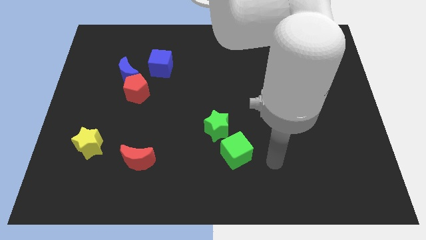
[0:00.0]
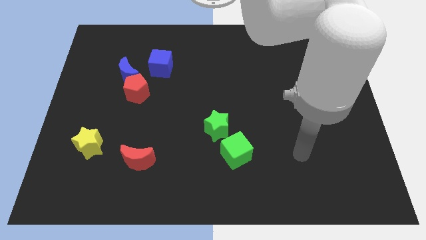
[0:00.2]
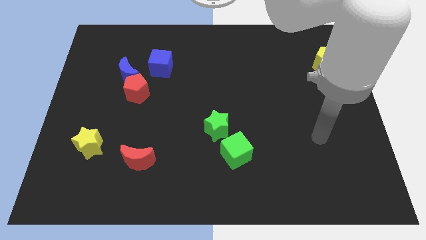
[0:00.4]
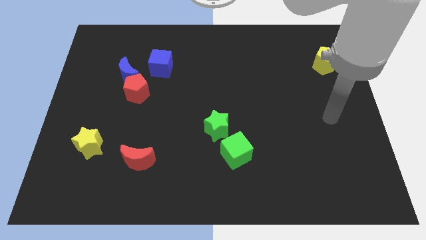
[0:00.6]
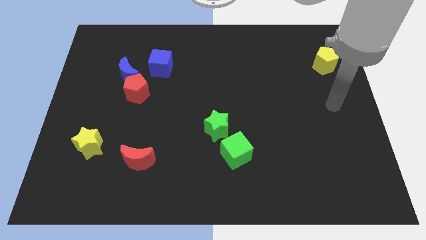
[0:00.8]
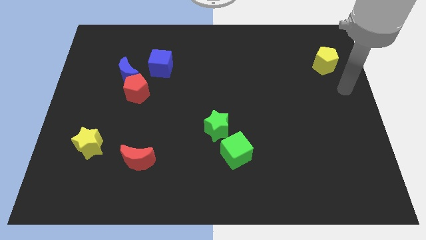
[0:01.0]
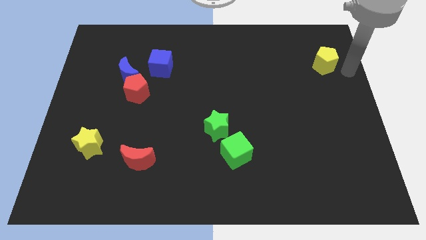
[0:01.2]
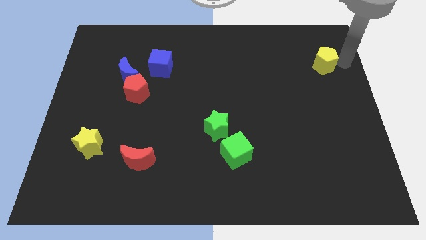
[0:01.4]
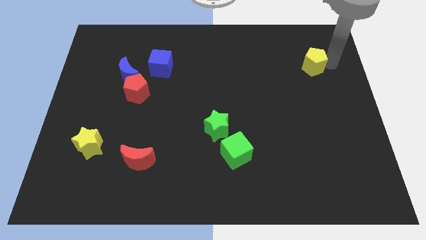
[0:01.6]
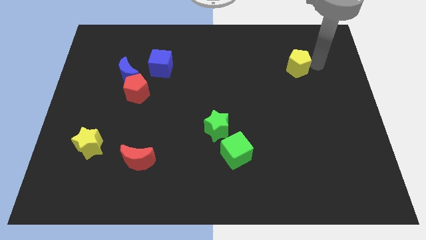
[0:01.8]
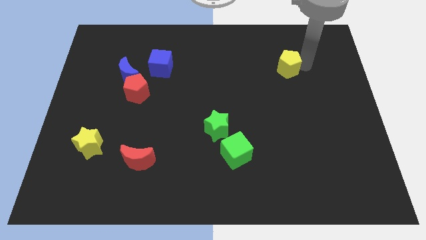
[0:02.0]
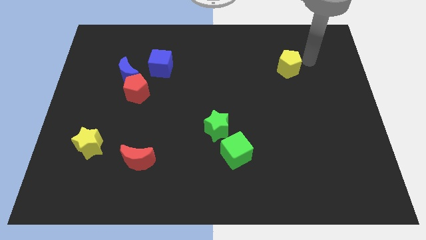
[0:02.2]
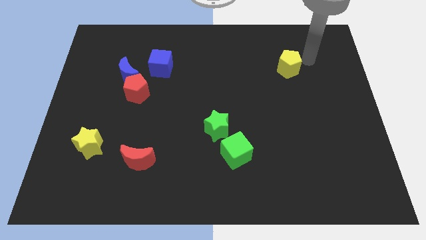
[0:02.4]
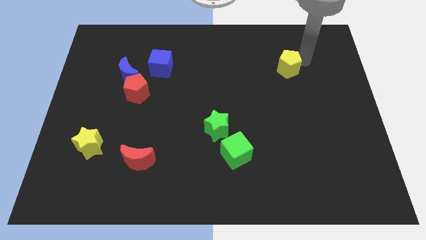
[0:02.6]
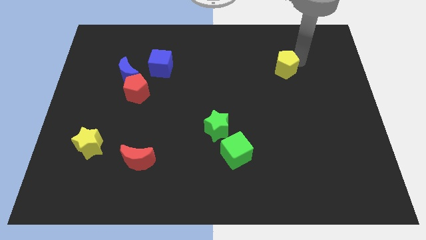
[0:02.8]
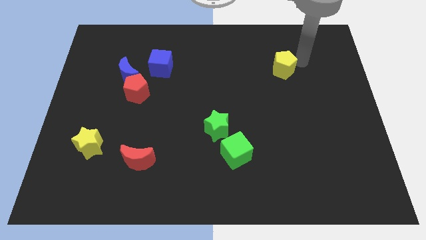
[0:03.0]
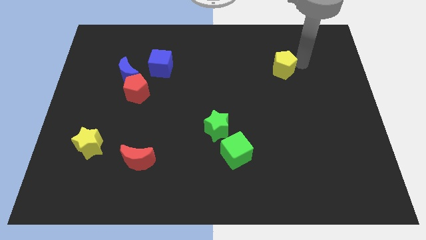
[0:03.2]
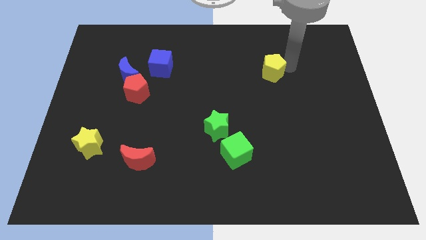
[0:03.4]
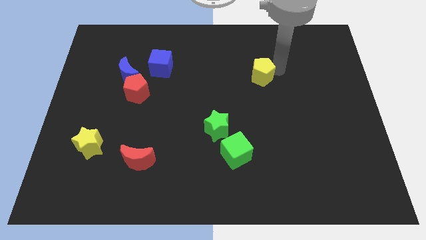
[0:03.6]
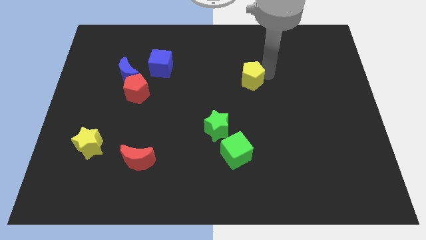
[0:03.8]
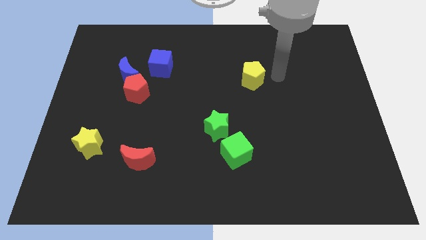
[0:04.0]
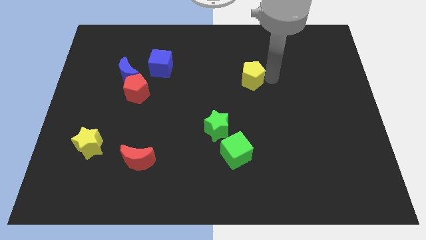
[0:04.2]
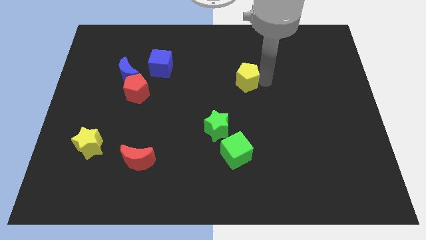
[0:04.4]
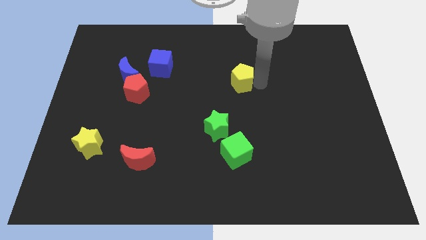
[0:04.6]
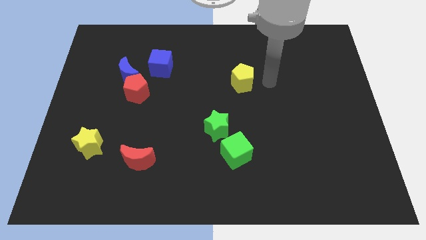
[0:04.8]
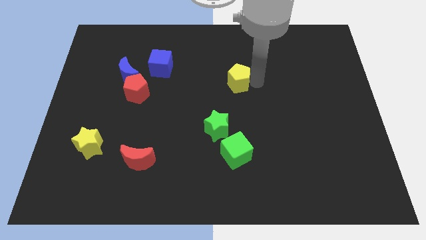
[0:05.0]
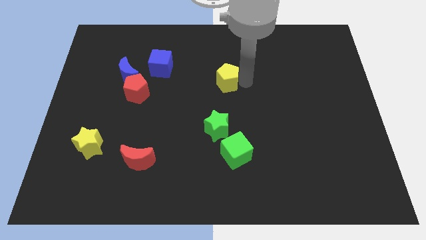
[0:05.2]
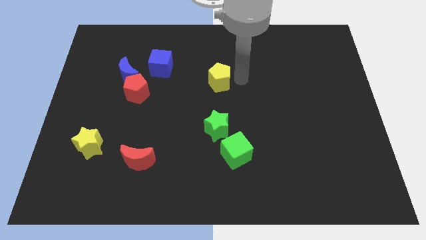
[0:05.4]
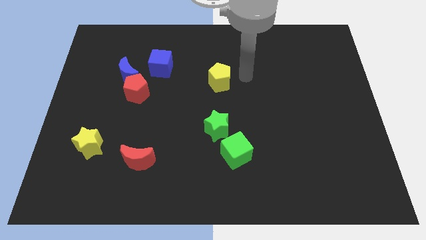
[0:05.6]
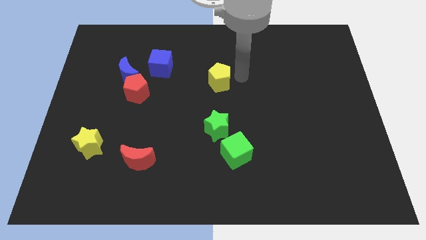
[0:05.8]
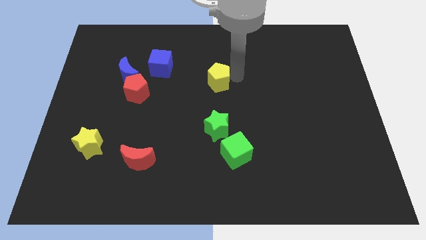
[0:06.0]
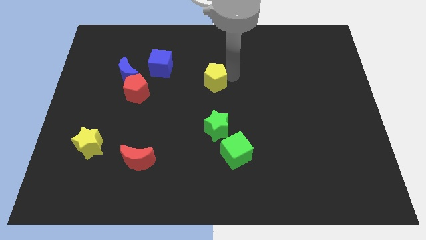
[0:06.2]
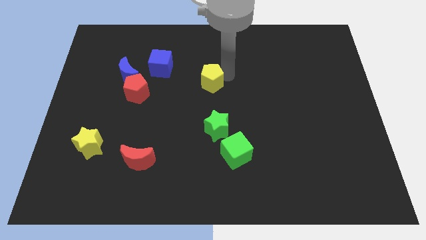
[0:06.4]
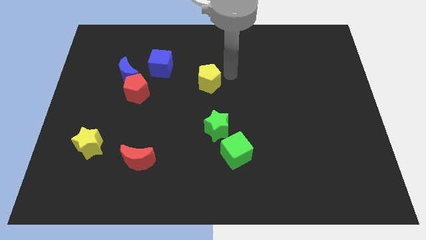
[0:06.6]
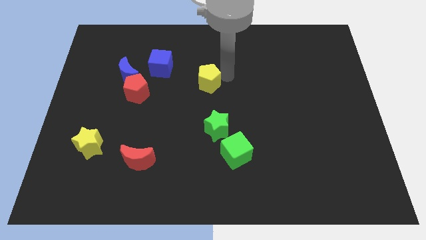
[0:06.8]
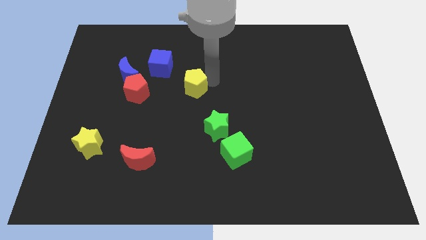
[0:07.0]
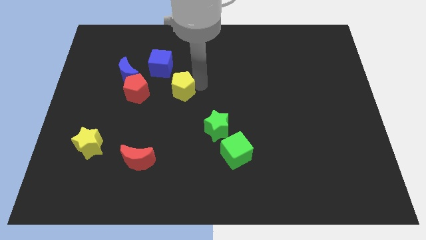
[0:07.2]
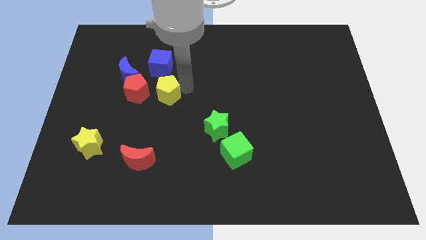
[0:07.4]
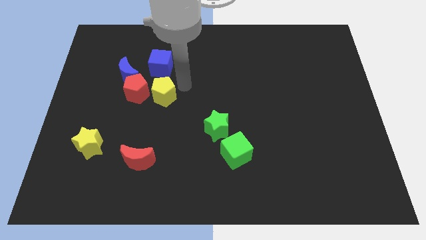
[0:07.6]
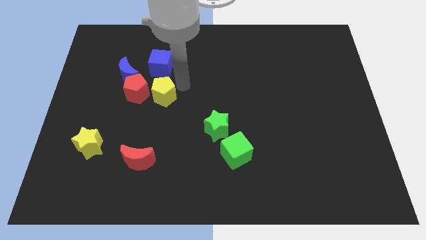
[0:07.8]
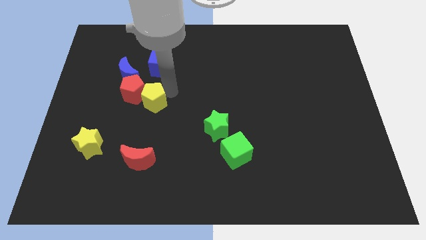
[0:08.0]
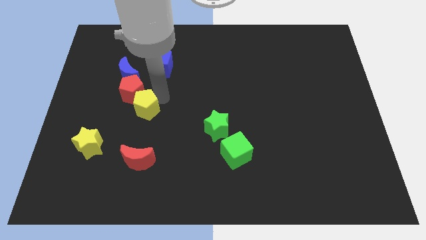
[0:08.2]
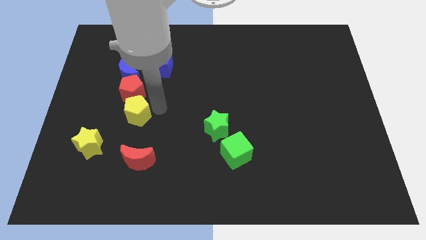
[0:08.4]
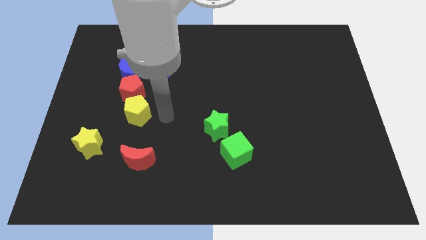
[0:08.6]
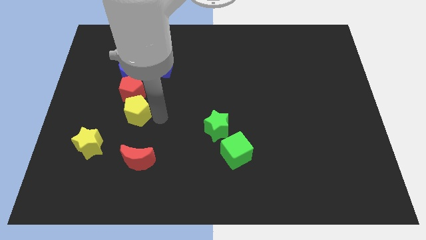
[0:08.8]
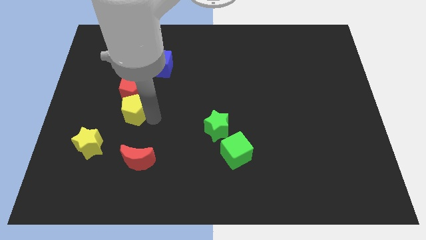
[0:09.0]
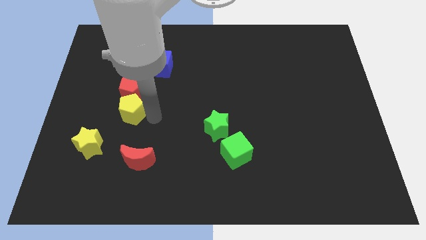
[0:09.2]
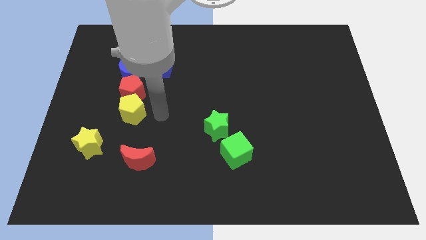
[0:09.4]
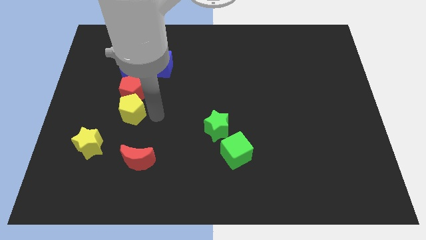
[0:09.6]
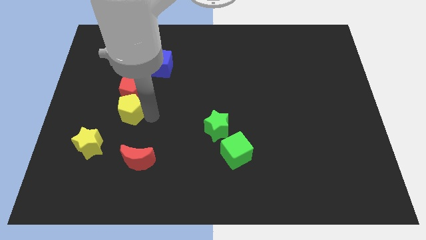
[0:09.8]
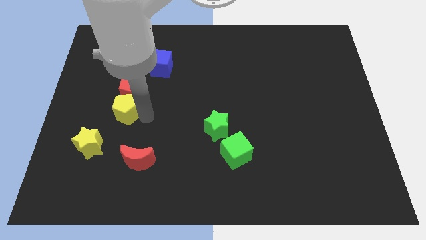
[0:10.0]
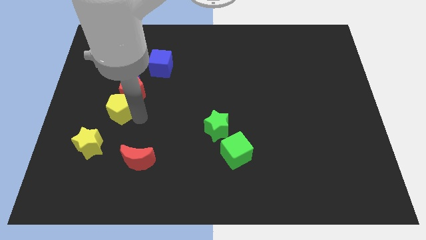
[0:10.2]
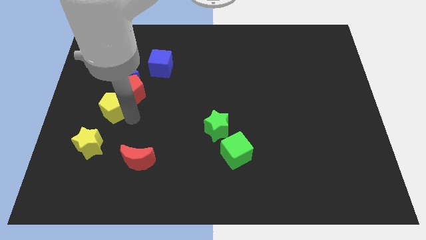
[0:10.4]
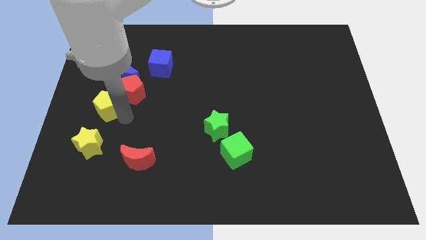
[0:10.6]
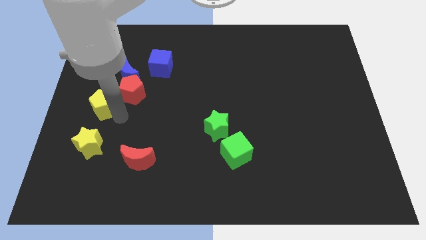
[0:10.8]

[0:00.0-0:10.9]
push the yellow pentagon to the left side of the board

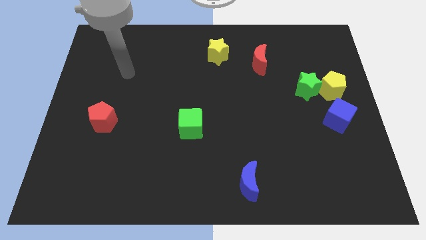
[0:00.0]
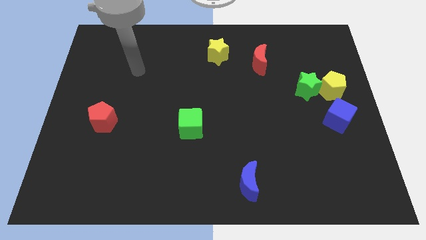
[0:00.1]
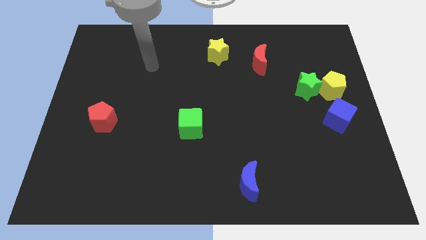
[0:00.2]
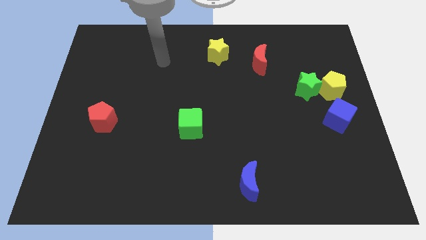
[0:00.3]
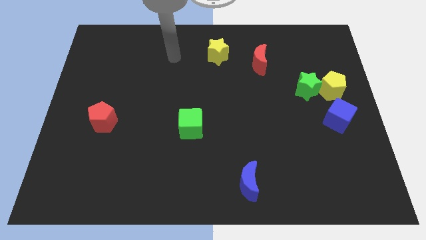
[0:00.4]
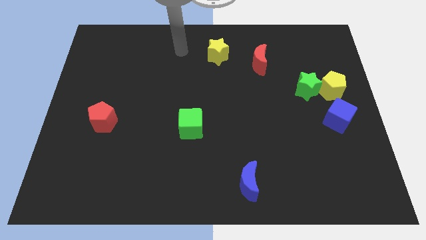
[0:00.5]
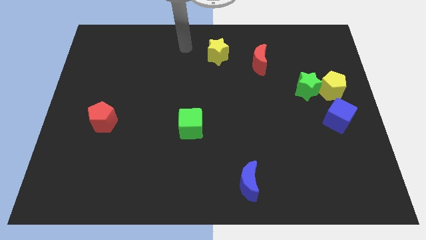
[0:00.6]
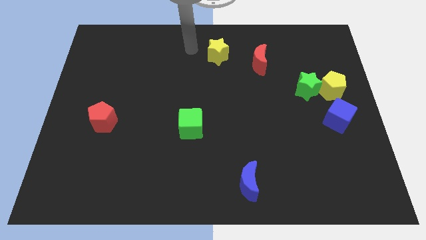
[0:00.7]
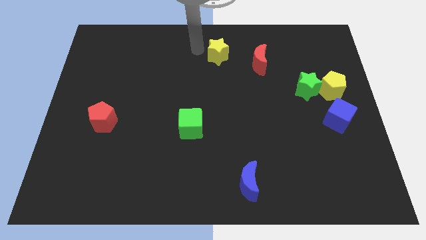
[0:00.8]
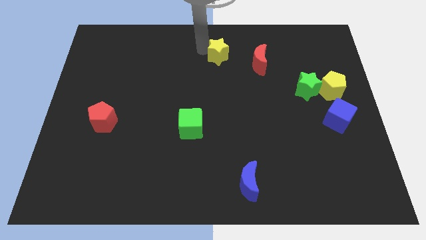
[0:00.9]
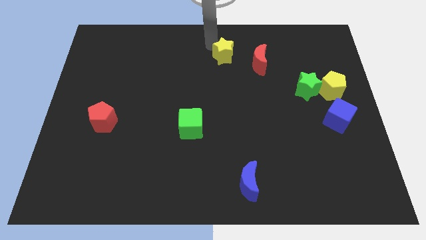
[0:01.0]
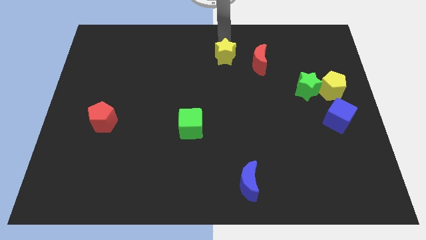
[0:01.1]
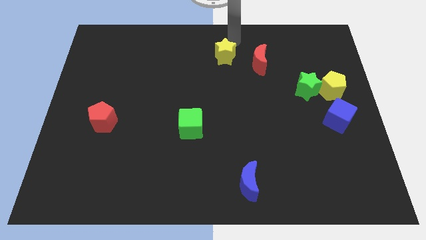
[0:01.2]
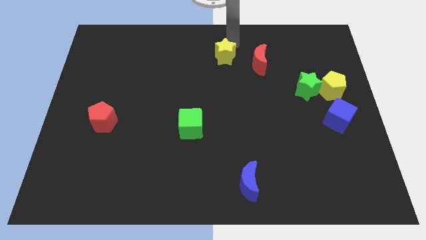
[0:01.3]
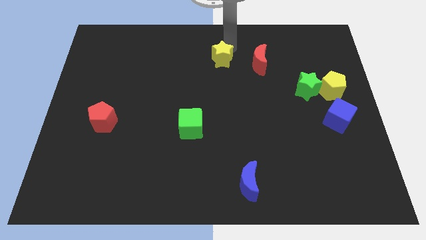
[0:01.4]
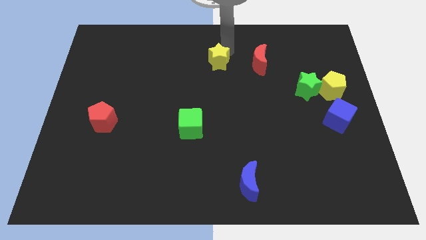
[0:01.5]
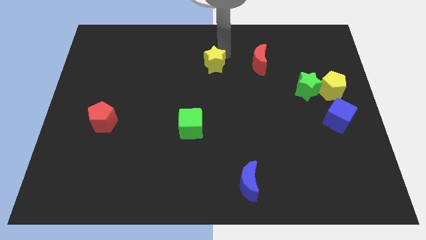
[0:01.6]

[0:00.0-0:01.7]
put the yellow star to the center of the board
